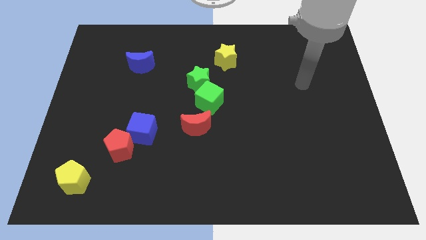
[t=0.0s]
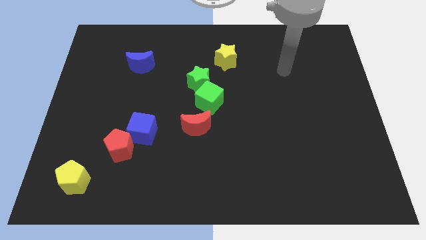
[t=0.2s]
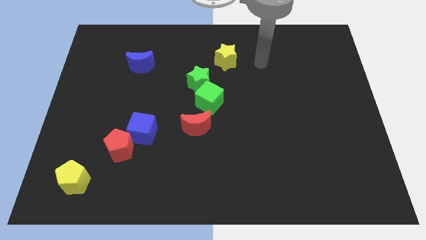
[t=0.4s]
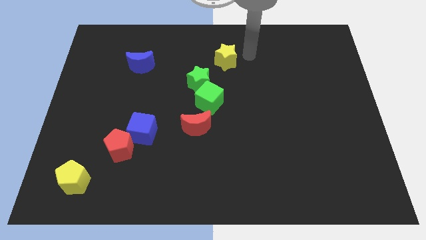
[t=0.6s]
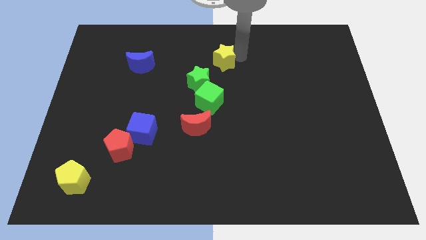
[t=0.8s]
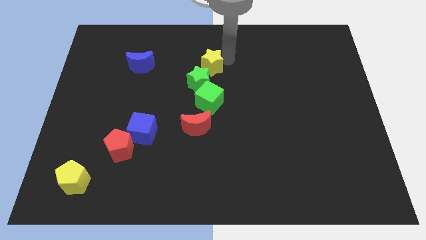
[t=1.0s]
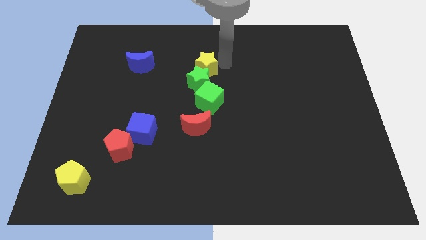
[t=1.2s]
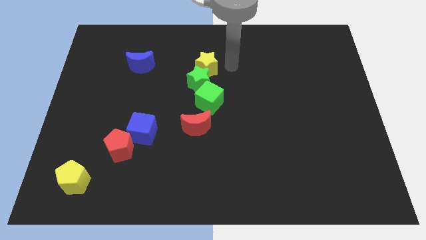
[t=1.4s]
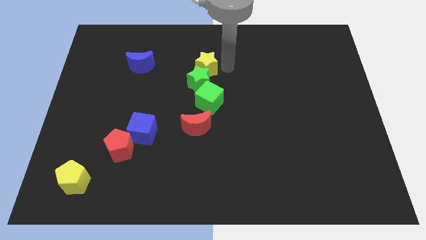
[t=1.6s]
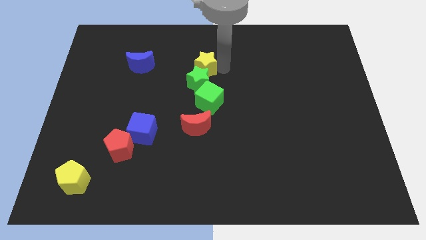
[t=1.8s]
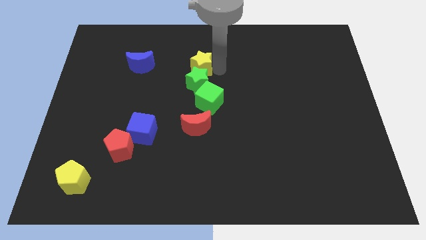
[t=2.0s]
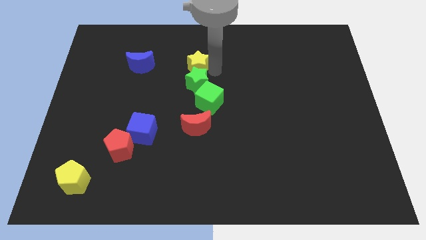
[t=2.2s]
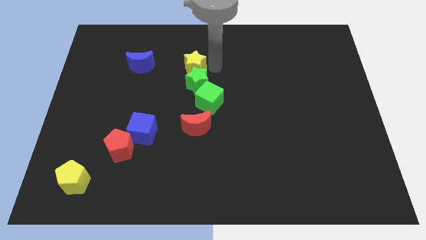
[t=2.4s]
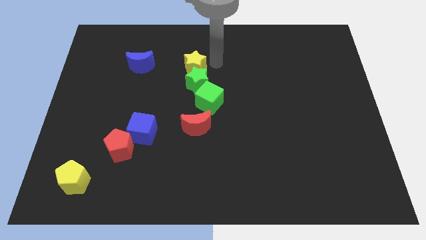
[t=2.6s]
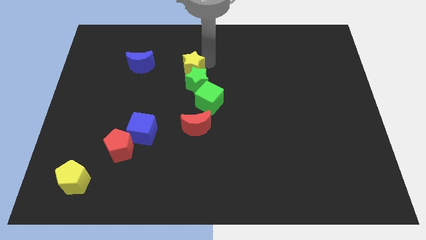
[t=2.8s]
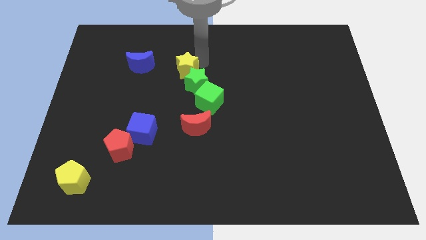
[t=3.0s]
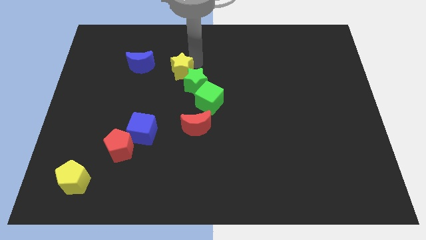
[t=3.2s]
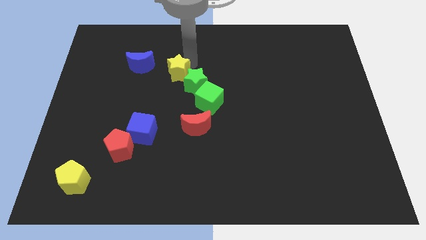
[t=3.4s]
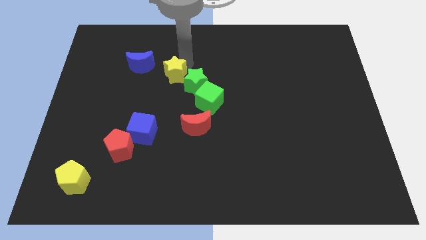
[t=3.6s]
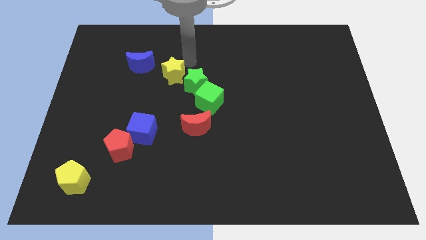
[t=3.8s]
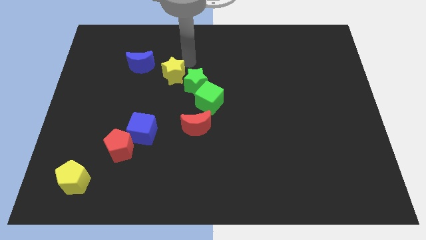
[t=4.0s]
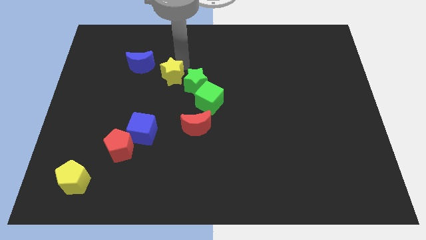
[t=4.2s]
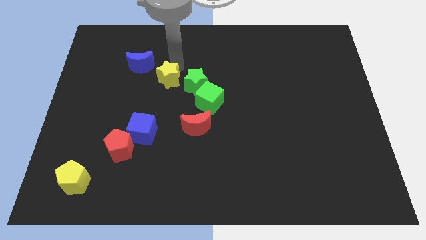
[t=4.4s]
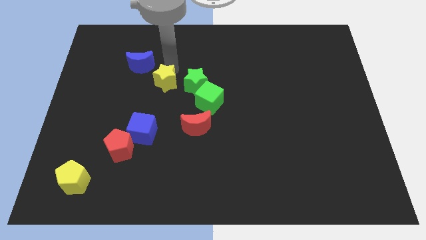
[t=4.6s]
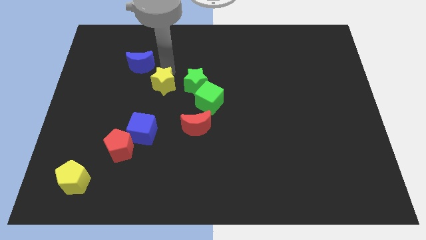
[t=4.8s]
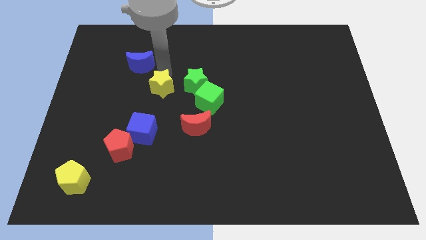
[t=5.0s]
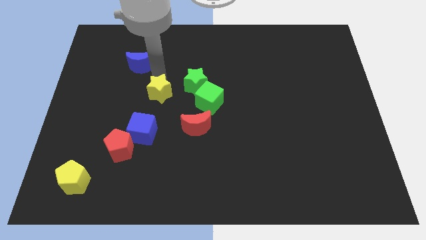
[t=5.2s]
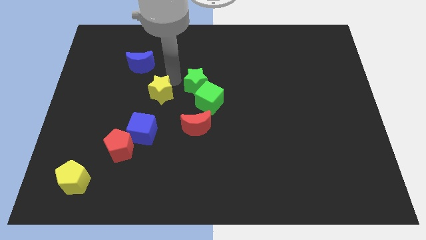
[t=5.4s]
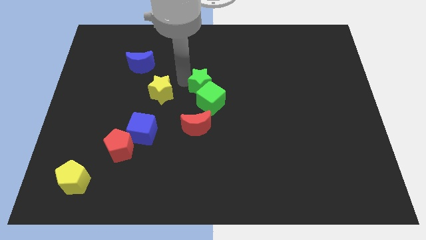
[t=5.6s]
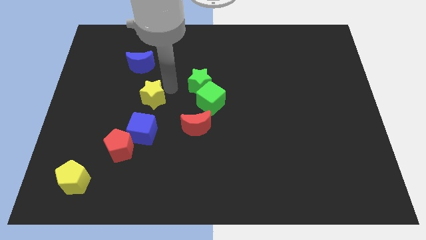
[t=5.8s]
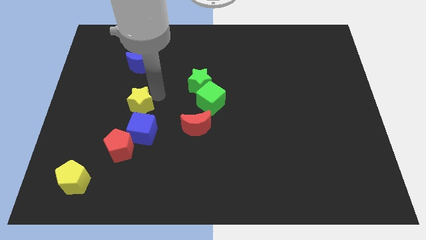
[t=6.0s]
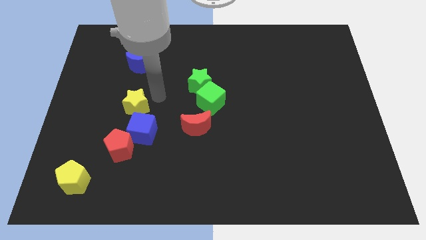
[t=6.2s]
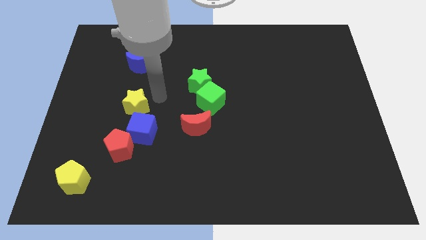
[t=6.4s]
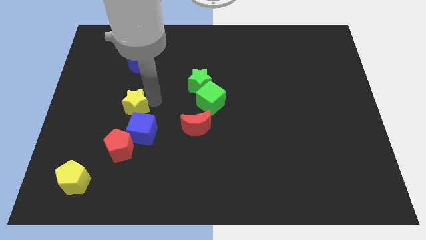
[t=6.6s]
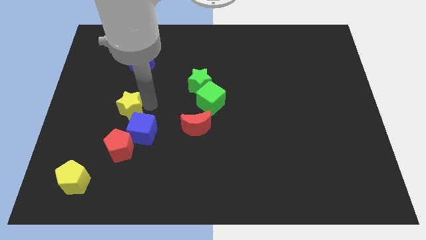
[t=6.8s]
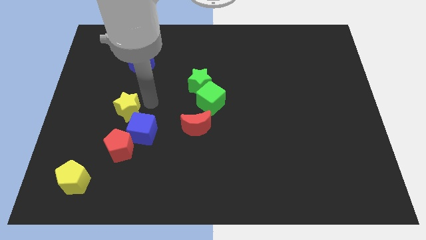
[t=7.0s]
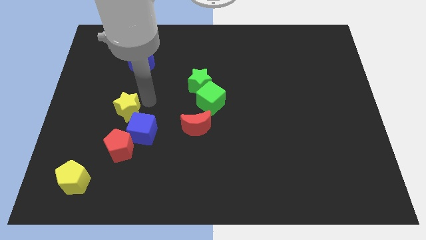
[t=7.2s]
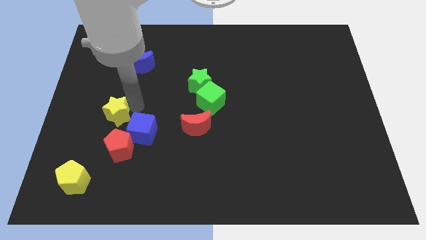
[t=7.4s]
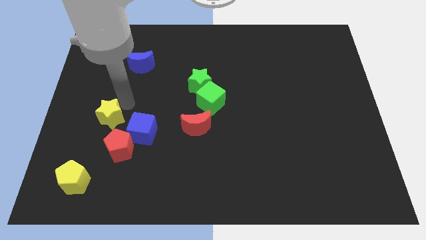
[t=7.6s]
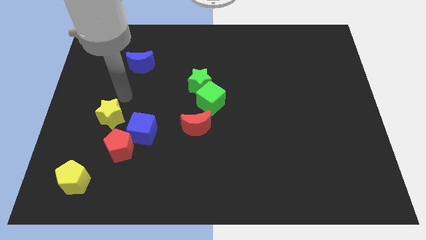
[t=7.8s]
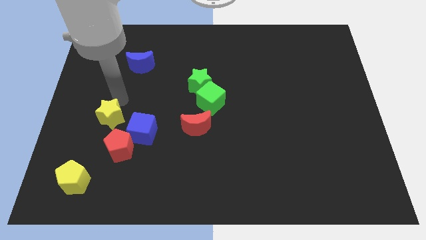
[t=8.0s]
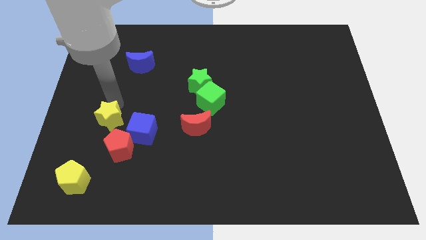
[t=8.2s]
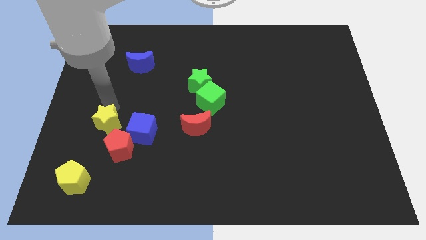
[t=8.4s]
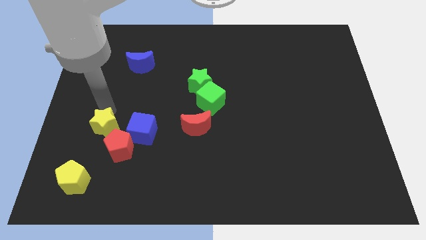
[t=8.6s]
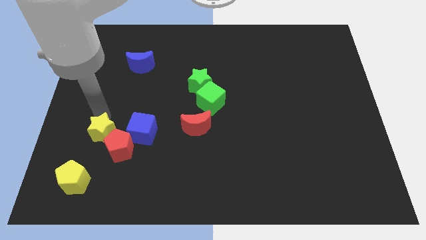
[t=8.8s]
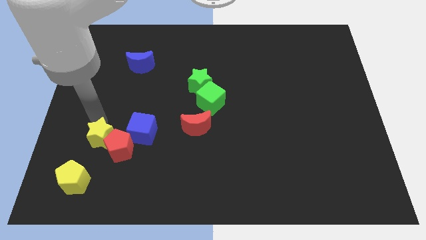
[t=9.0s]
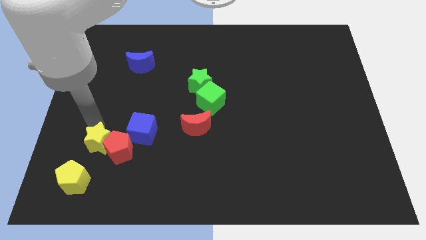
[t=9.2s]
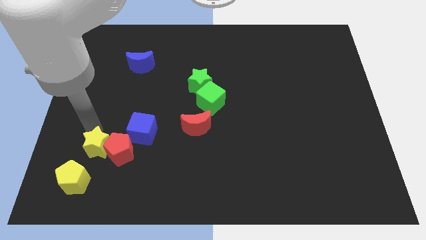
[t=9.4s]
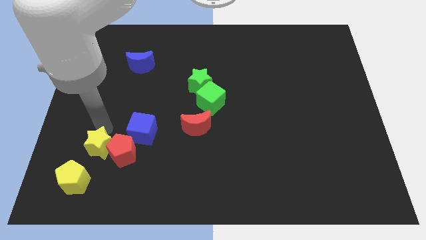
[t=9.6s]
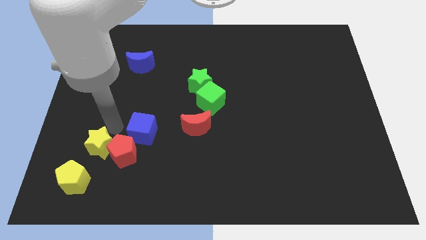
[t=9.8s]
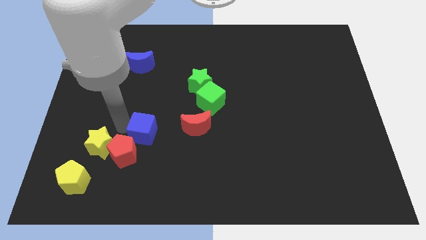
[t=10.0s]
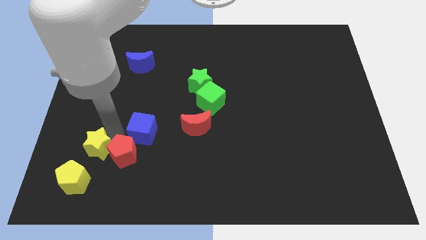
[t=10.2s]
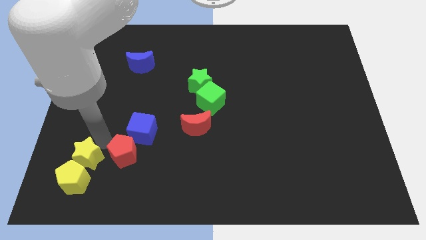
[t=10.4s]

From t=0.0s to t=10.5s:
slide the yellow star towards the yellow pentagon

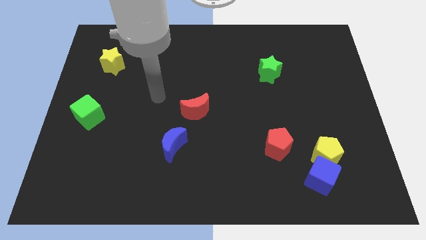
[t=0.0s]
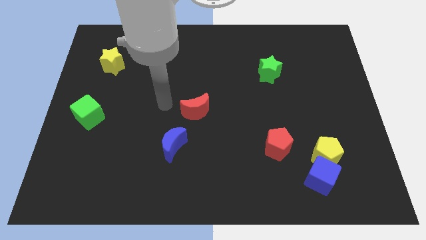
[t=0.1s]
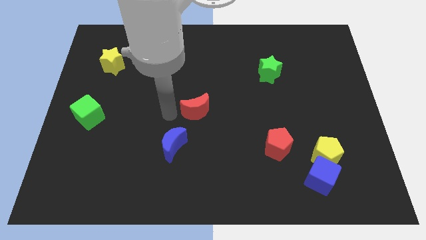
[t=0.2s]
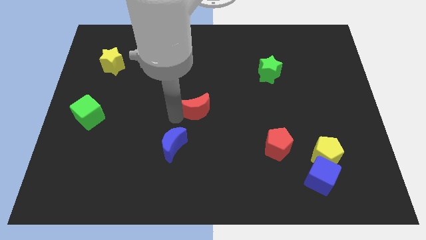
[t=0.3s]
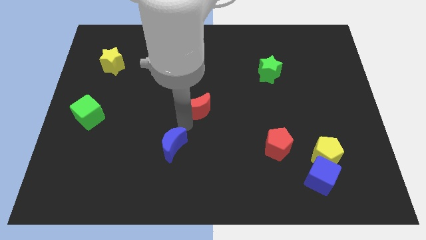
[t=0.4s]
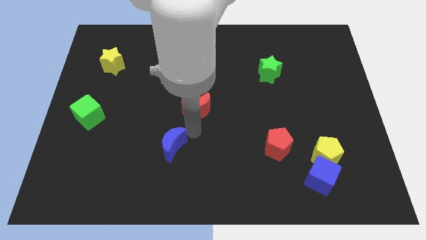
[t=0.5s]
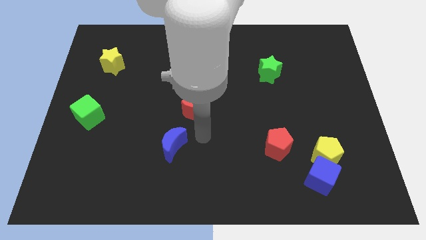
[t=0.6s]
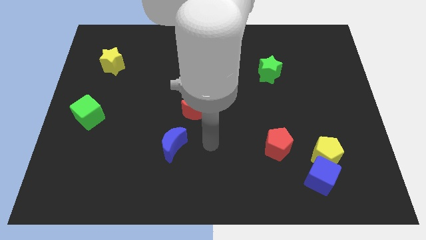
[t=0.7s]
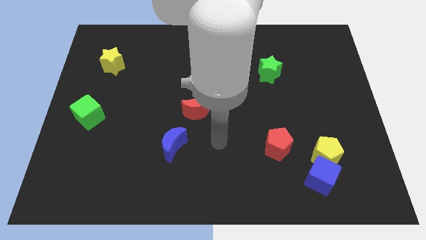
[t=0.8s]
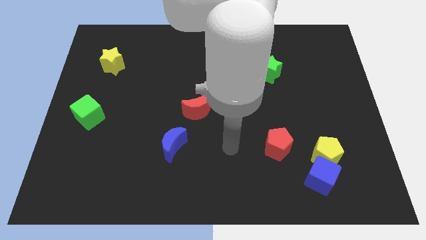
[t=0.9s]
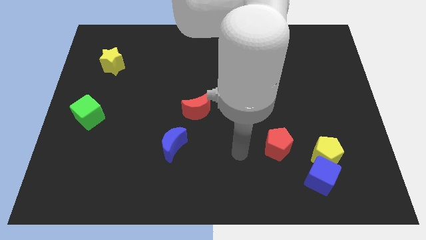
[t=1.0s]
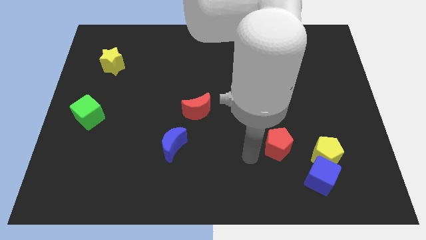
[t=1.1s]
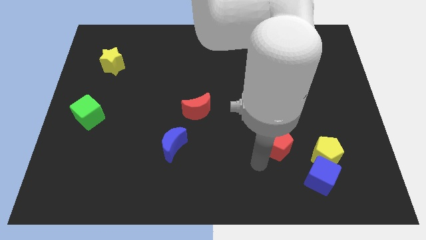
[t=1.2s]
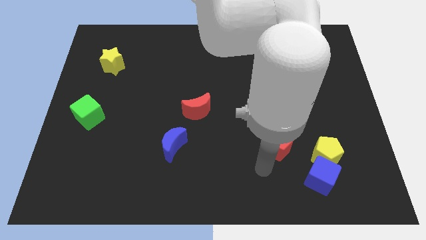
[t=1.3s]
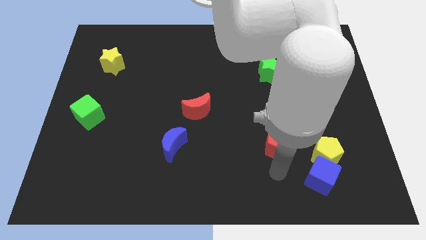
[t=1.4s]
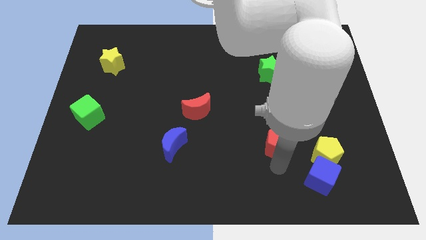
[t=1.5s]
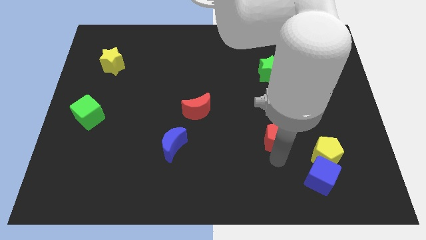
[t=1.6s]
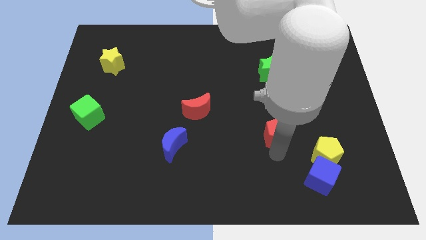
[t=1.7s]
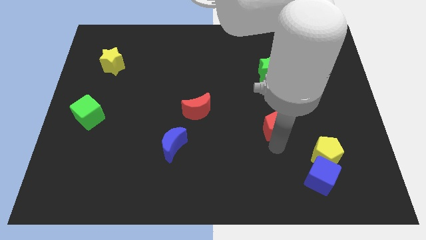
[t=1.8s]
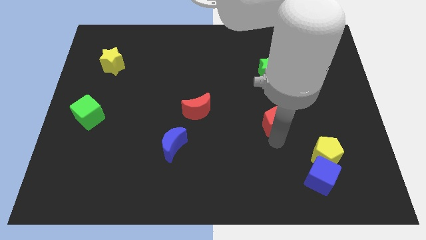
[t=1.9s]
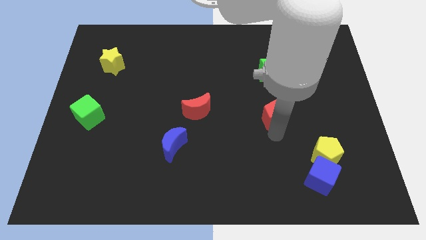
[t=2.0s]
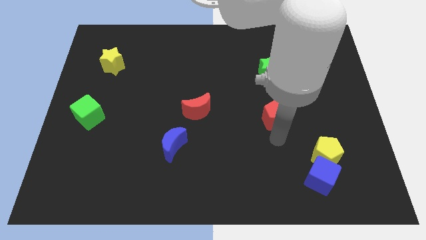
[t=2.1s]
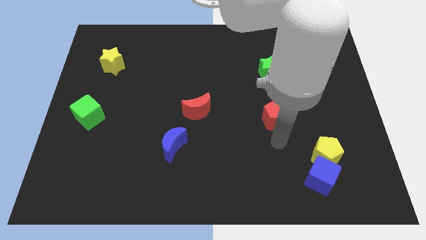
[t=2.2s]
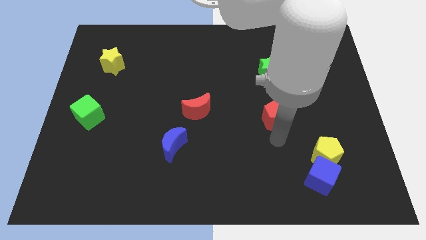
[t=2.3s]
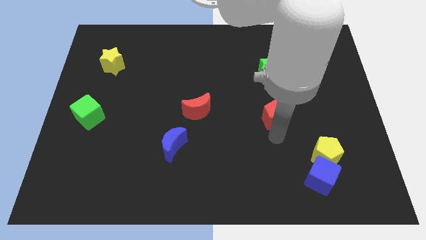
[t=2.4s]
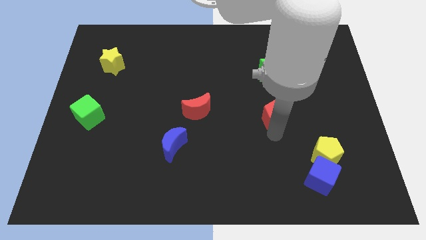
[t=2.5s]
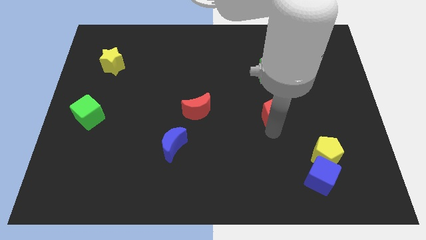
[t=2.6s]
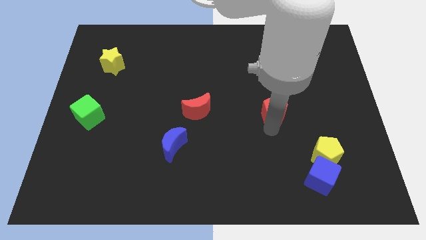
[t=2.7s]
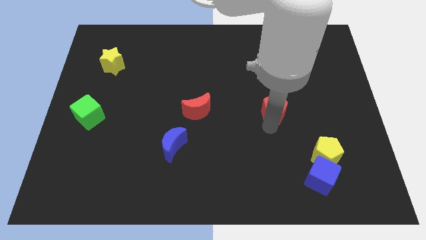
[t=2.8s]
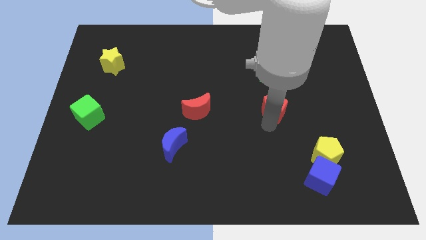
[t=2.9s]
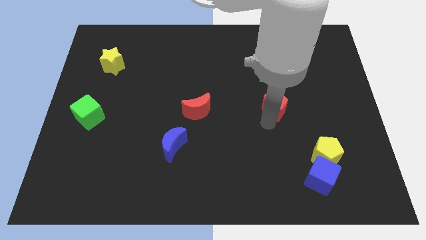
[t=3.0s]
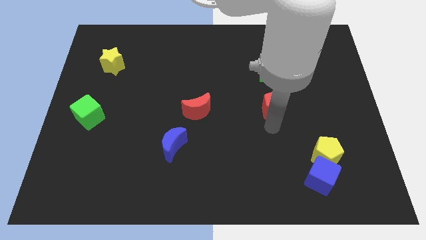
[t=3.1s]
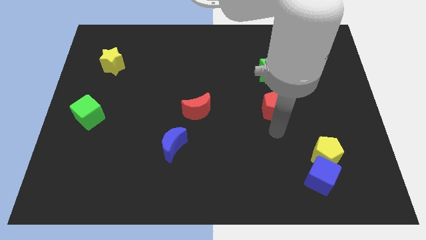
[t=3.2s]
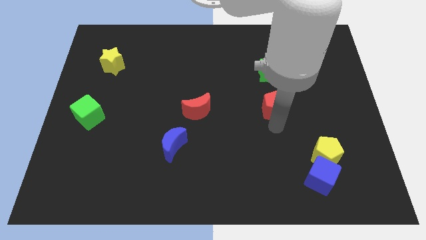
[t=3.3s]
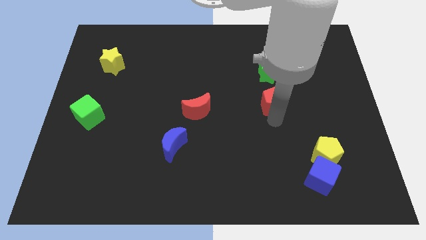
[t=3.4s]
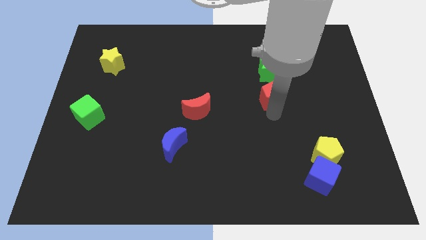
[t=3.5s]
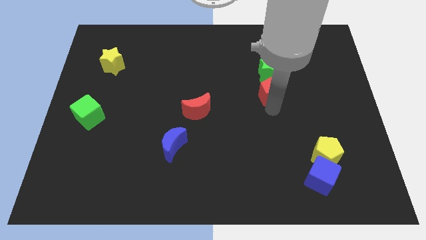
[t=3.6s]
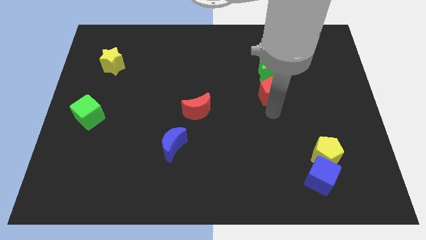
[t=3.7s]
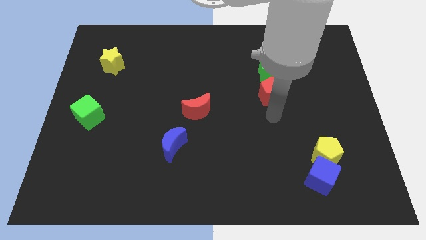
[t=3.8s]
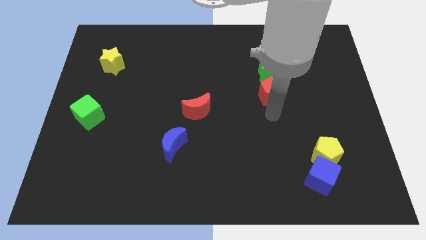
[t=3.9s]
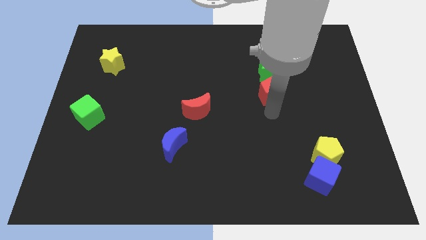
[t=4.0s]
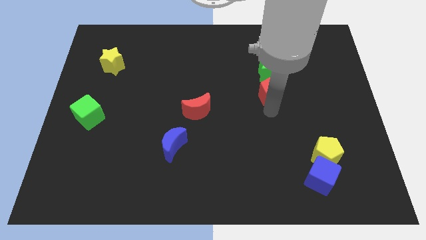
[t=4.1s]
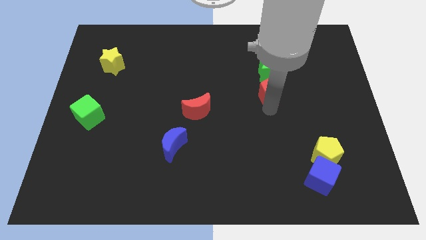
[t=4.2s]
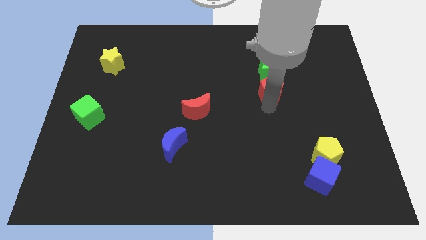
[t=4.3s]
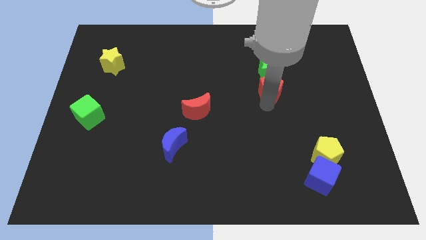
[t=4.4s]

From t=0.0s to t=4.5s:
slide the red pentagon close to the green star
